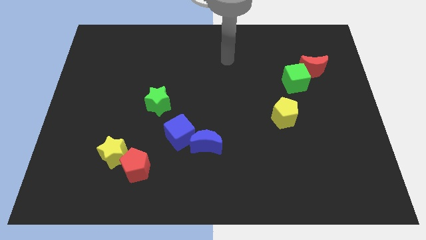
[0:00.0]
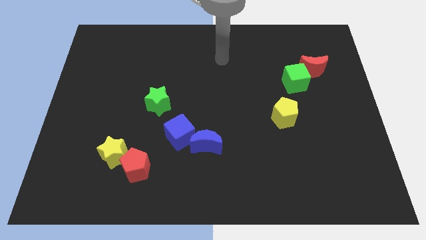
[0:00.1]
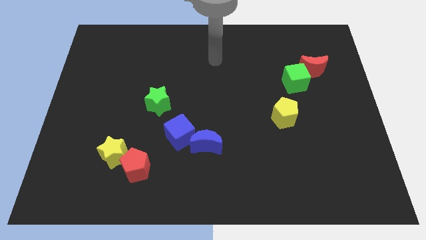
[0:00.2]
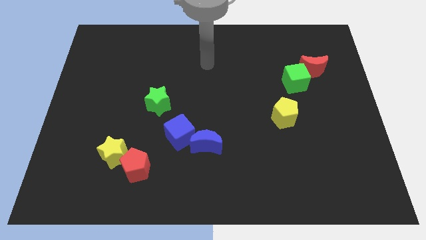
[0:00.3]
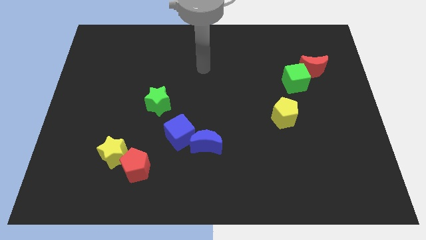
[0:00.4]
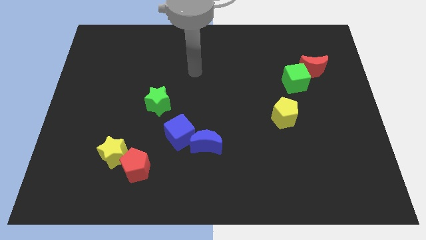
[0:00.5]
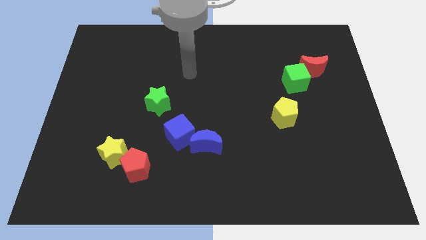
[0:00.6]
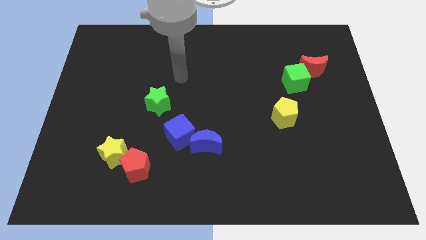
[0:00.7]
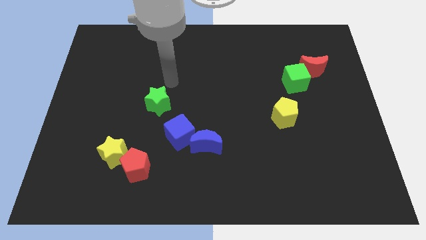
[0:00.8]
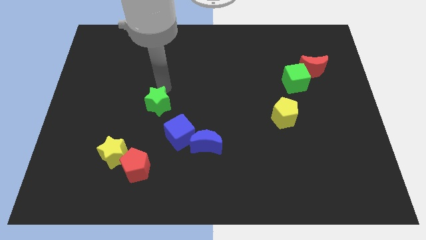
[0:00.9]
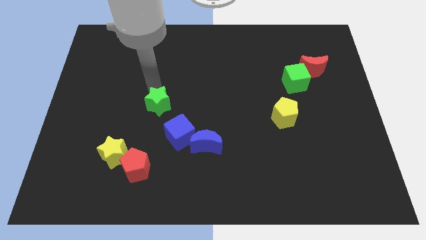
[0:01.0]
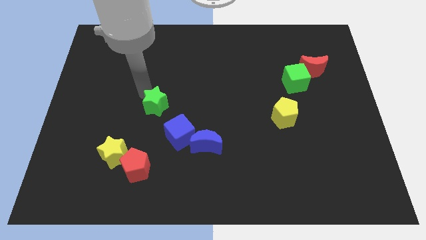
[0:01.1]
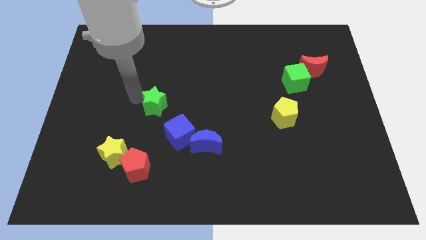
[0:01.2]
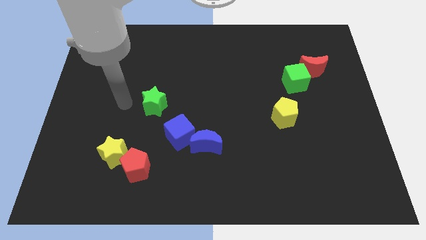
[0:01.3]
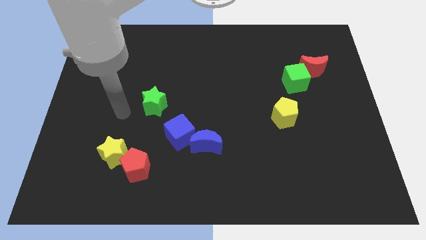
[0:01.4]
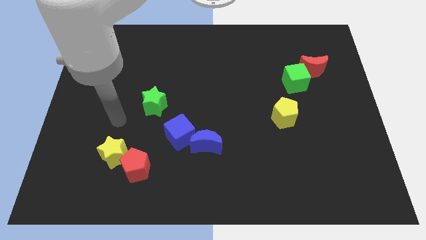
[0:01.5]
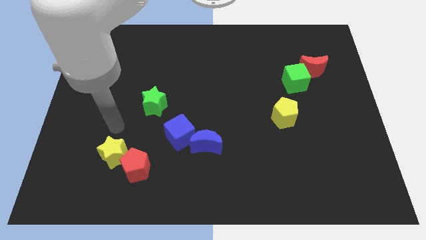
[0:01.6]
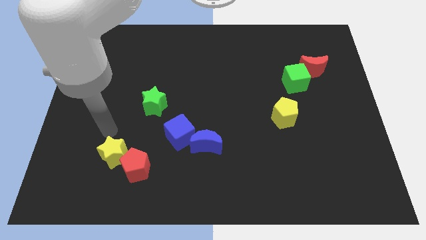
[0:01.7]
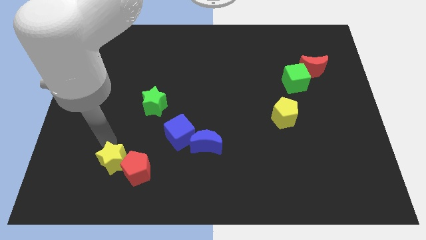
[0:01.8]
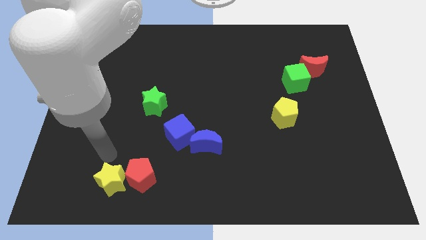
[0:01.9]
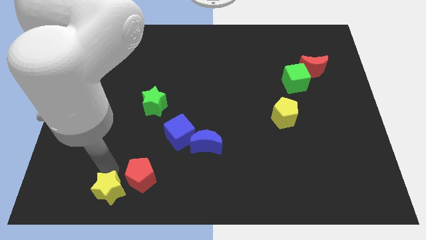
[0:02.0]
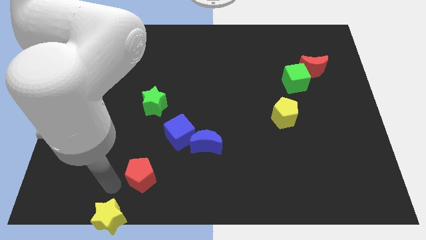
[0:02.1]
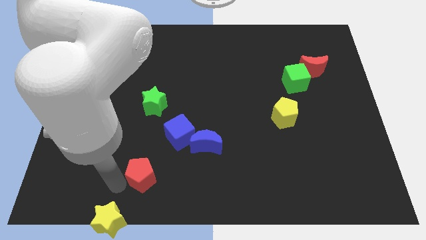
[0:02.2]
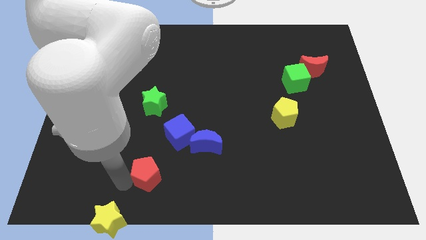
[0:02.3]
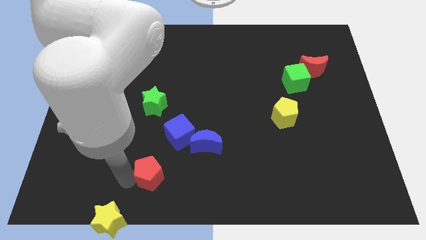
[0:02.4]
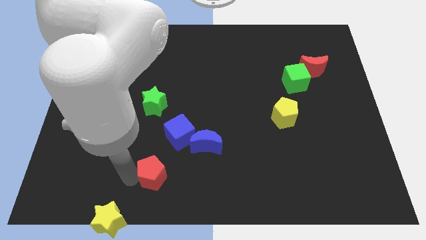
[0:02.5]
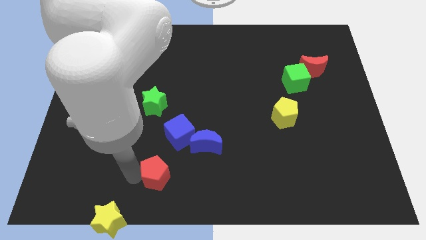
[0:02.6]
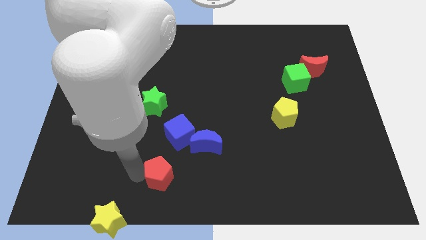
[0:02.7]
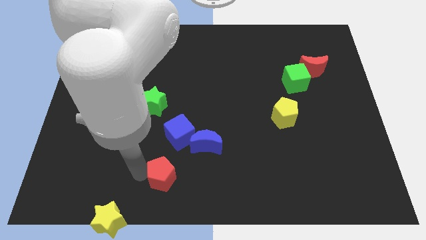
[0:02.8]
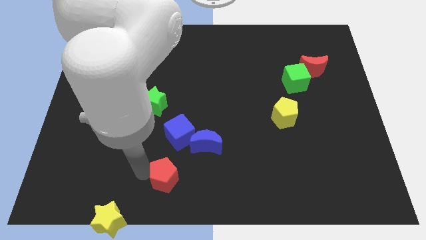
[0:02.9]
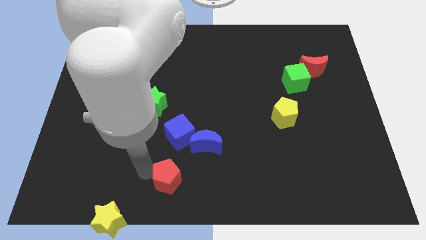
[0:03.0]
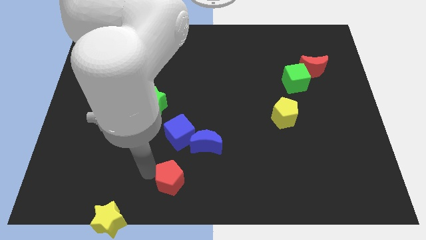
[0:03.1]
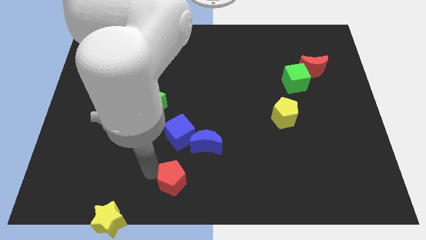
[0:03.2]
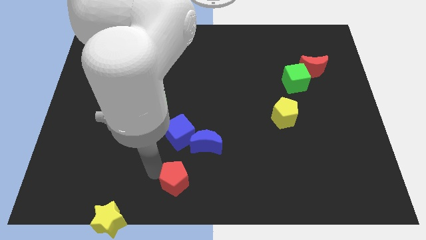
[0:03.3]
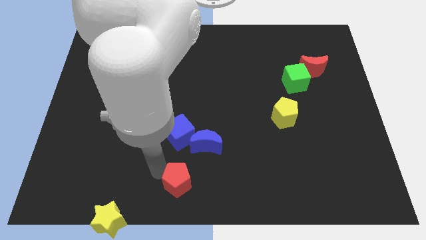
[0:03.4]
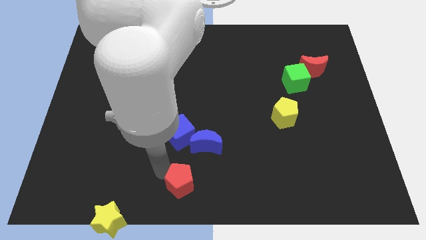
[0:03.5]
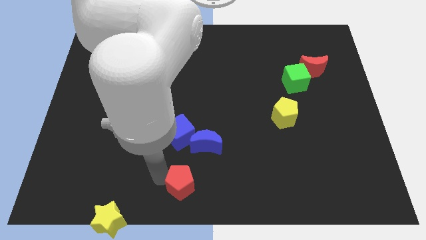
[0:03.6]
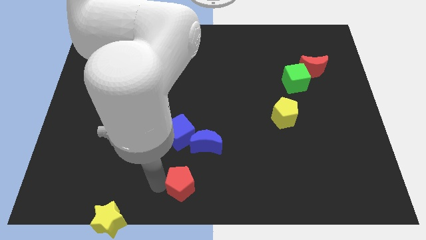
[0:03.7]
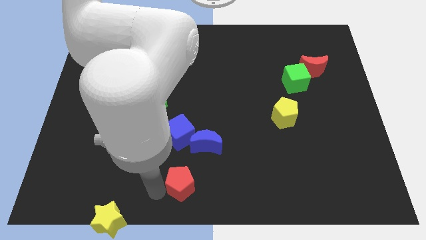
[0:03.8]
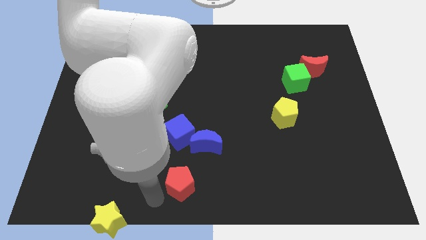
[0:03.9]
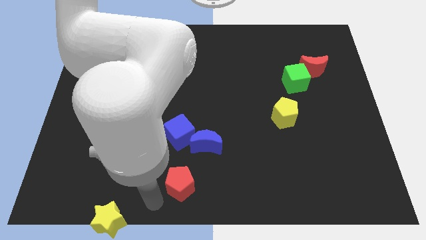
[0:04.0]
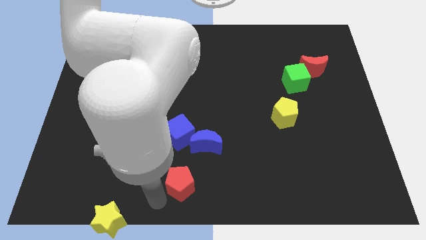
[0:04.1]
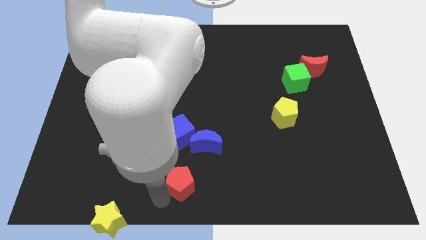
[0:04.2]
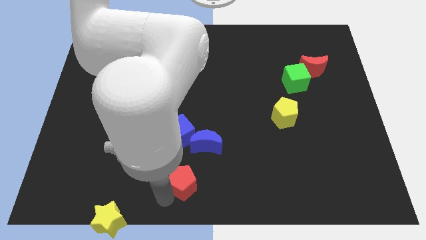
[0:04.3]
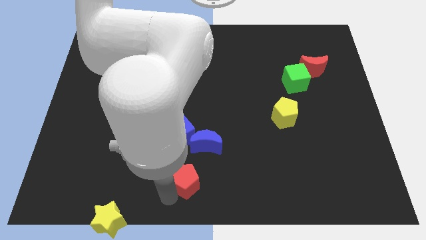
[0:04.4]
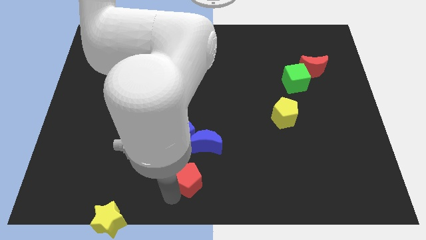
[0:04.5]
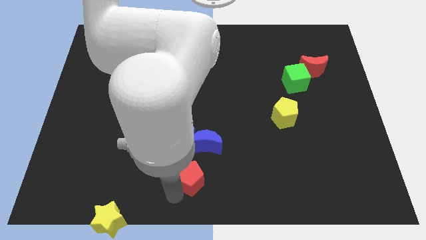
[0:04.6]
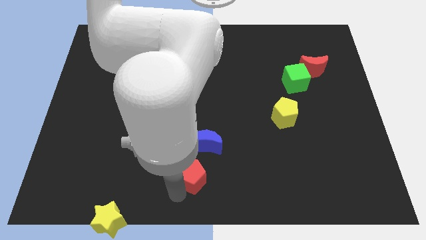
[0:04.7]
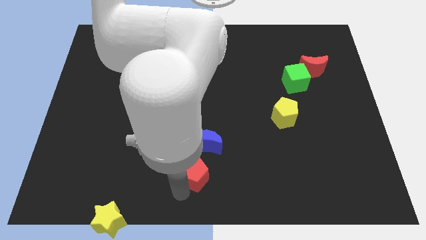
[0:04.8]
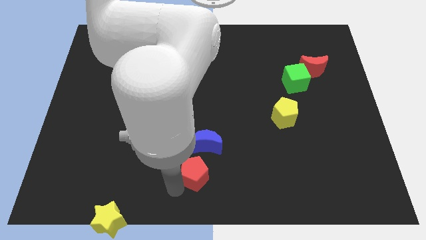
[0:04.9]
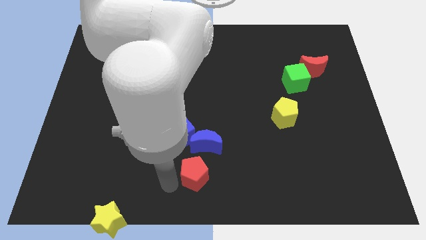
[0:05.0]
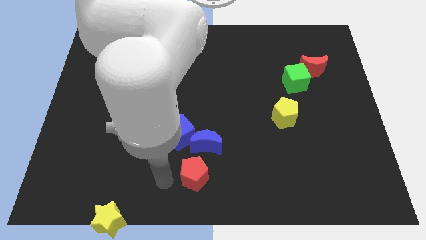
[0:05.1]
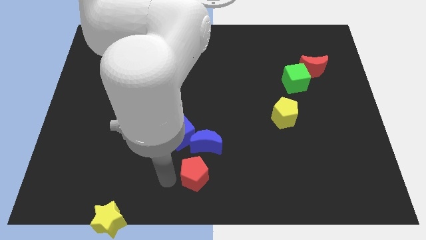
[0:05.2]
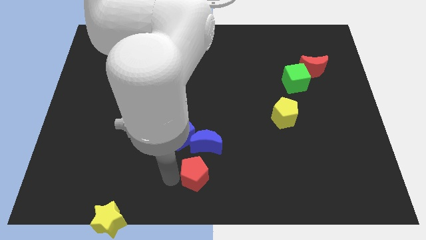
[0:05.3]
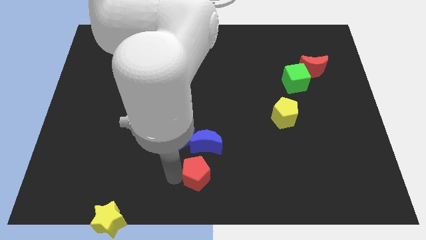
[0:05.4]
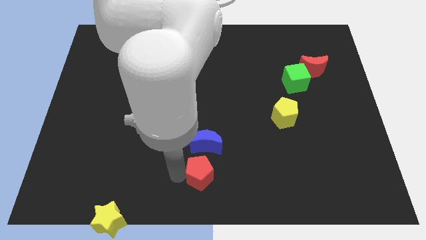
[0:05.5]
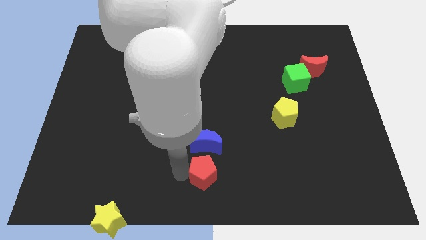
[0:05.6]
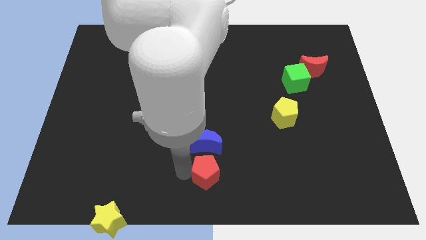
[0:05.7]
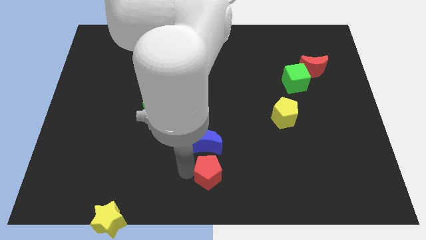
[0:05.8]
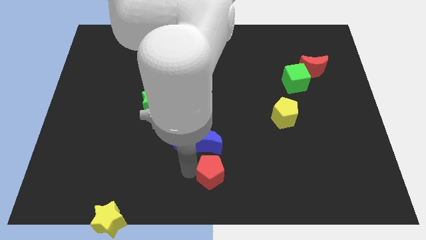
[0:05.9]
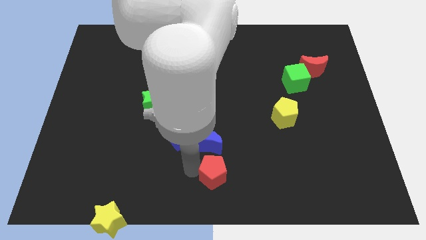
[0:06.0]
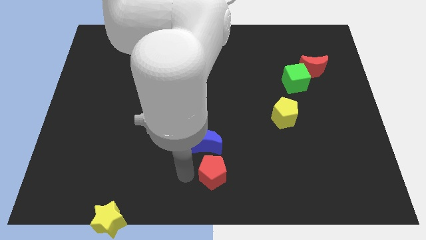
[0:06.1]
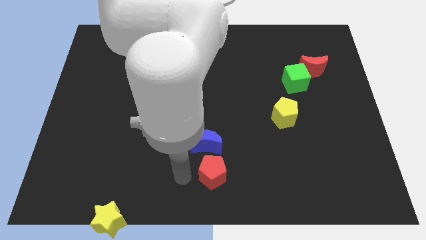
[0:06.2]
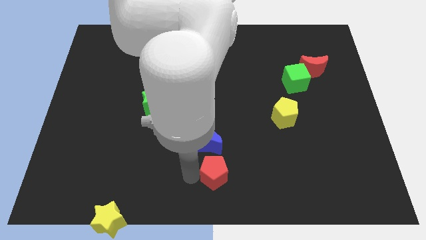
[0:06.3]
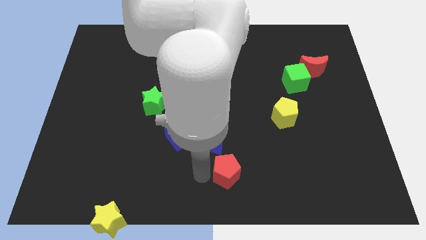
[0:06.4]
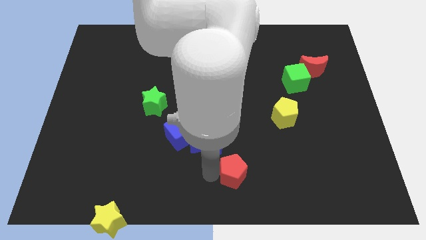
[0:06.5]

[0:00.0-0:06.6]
push the red pentagon to the right

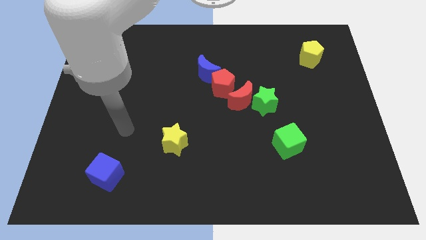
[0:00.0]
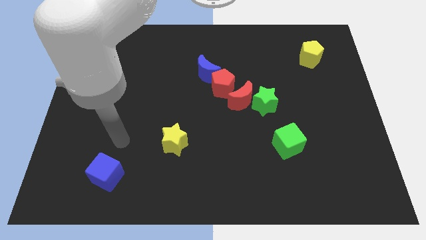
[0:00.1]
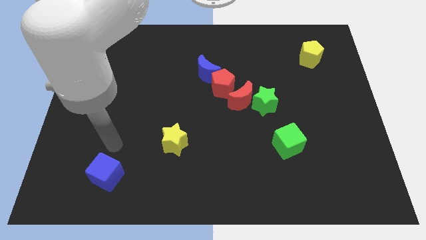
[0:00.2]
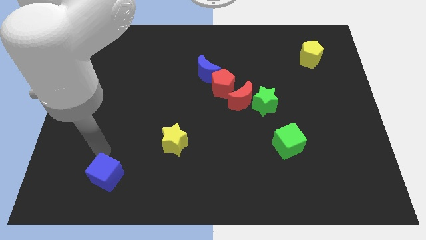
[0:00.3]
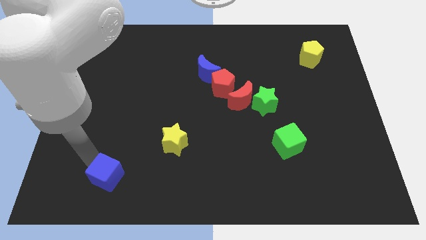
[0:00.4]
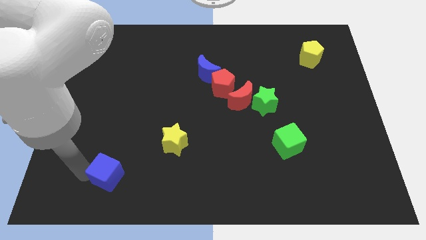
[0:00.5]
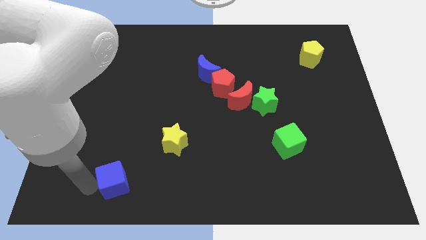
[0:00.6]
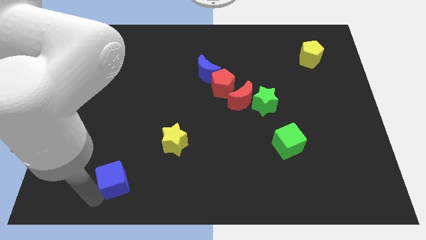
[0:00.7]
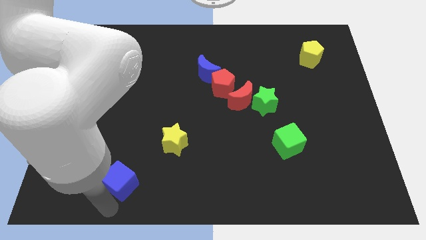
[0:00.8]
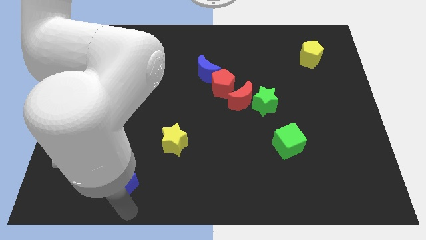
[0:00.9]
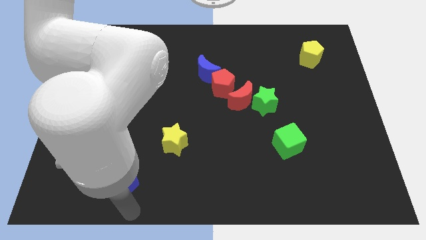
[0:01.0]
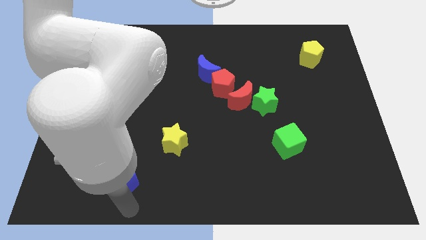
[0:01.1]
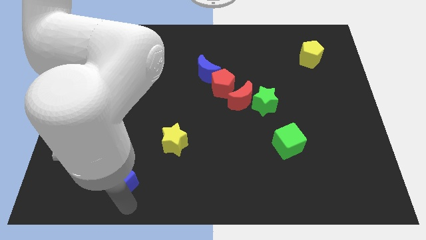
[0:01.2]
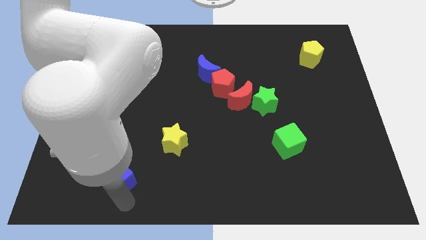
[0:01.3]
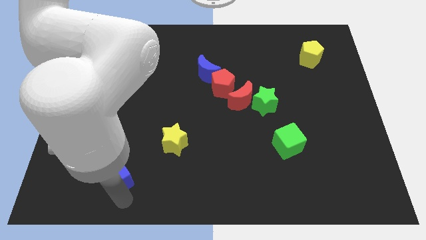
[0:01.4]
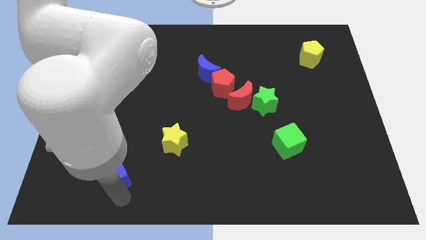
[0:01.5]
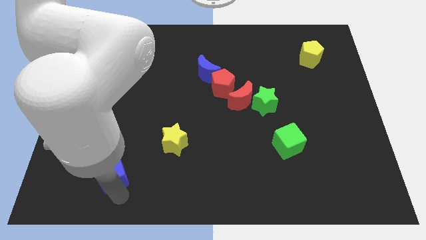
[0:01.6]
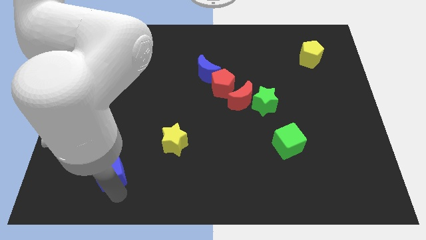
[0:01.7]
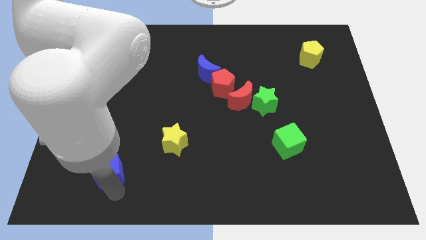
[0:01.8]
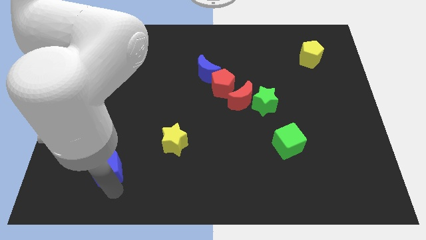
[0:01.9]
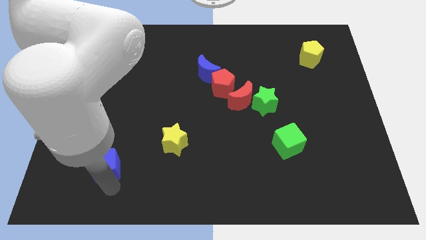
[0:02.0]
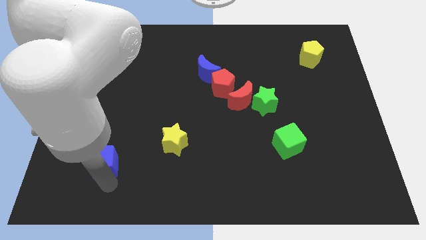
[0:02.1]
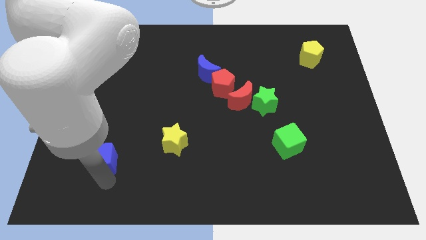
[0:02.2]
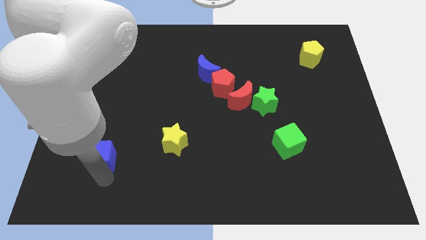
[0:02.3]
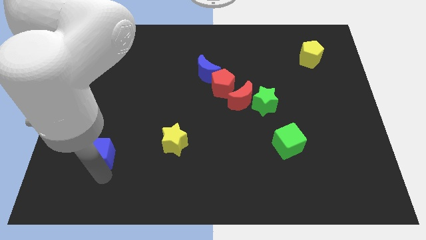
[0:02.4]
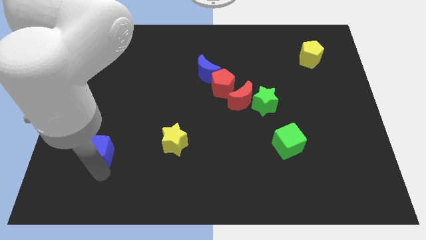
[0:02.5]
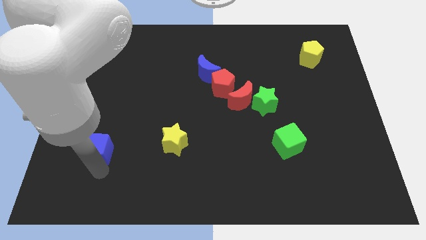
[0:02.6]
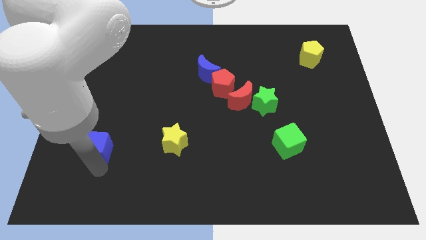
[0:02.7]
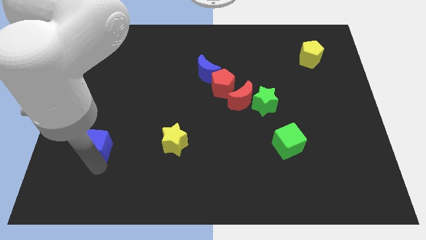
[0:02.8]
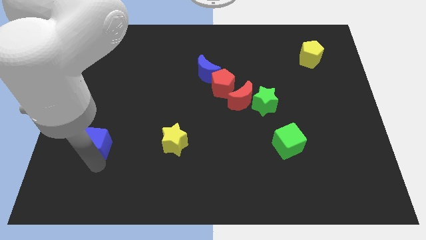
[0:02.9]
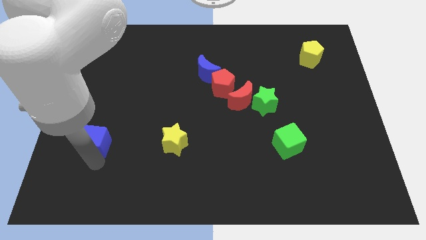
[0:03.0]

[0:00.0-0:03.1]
move the blue cube up a little bit
